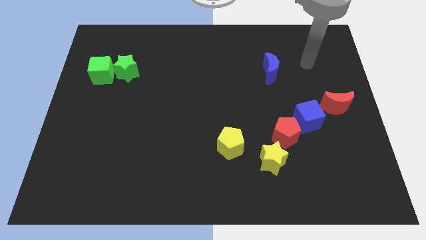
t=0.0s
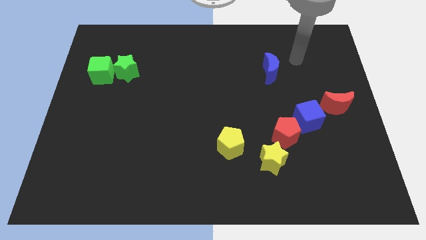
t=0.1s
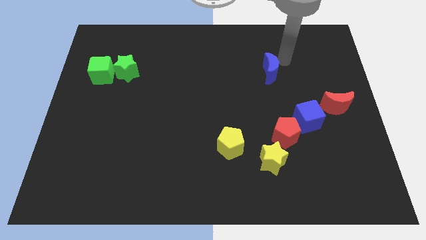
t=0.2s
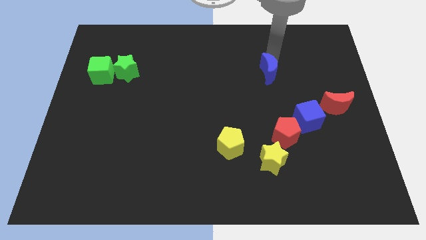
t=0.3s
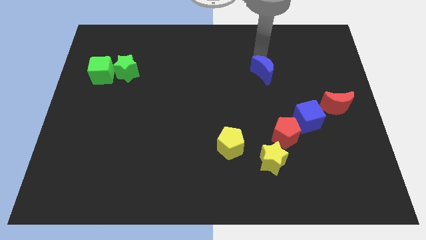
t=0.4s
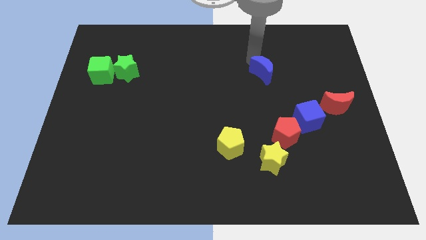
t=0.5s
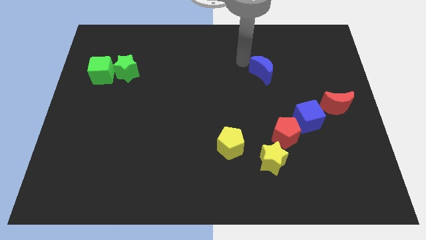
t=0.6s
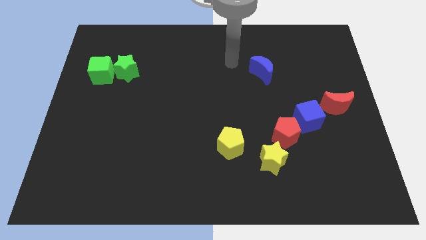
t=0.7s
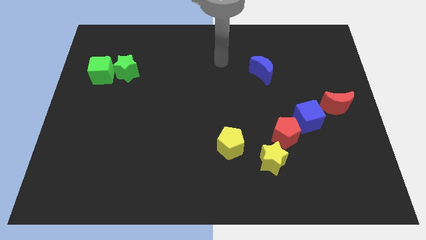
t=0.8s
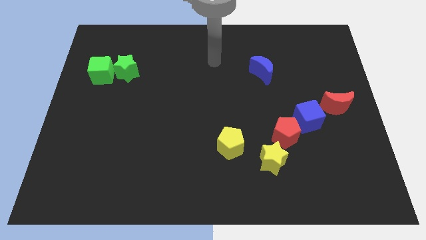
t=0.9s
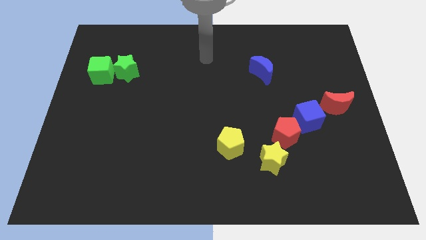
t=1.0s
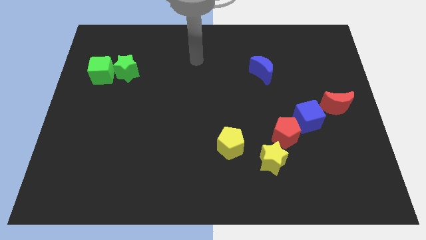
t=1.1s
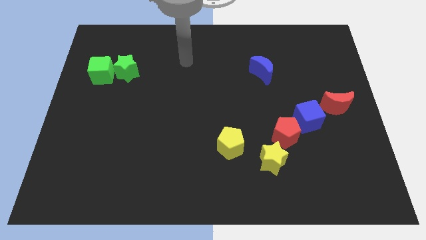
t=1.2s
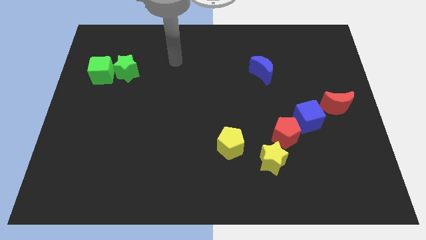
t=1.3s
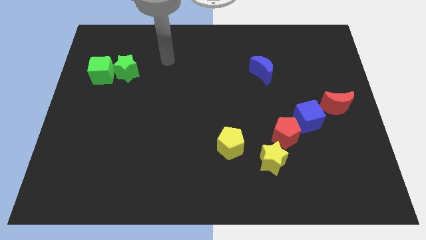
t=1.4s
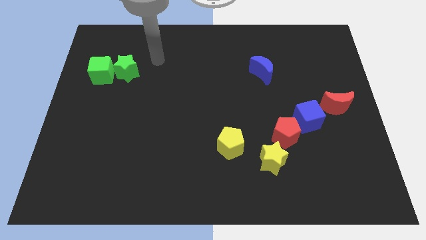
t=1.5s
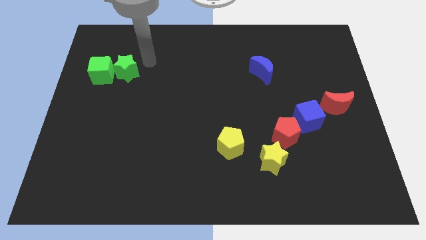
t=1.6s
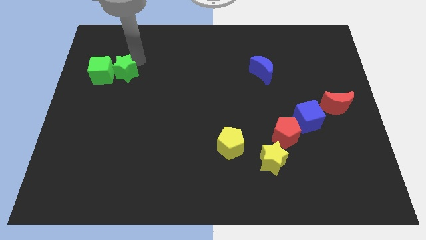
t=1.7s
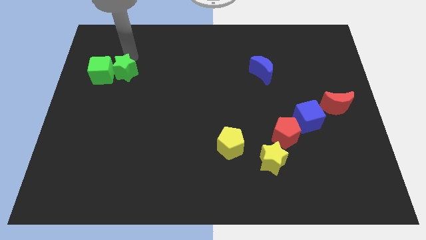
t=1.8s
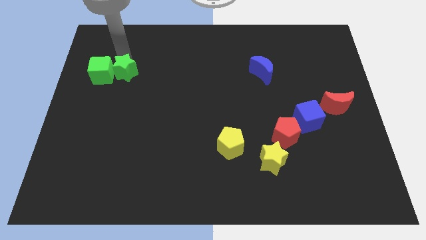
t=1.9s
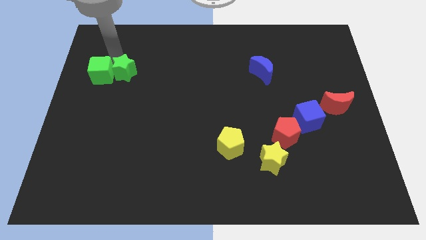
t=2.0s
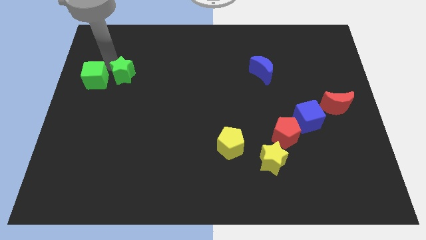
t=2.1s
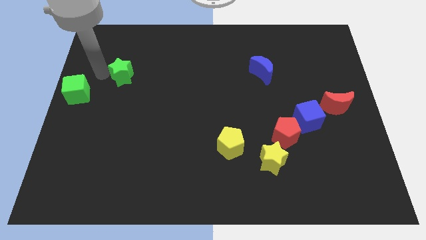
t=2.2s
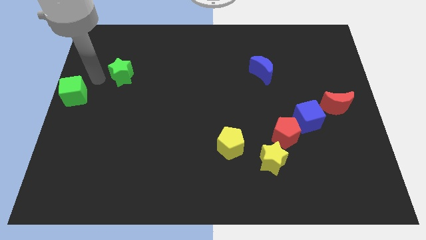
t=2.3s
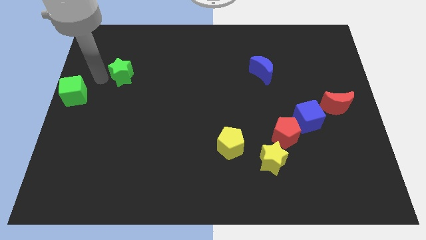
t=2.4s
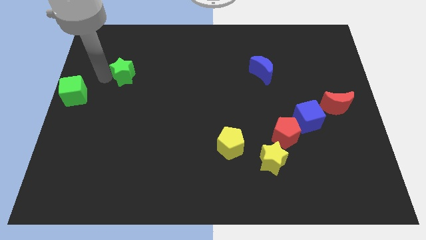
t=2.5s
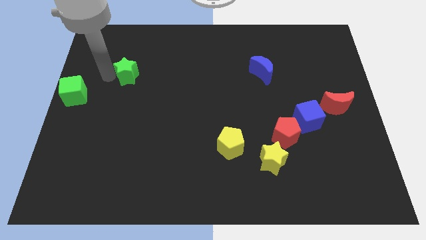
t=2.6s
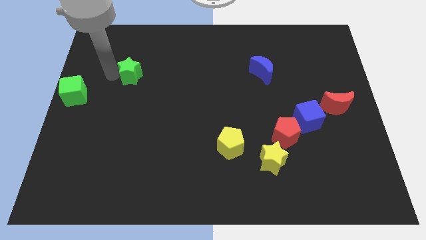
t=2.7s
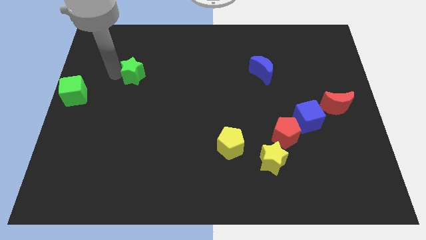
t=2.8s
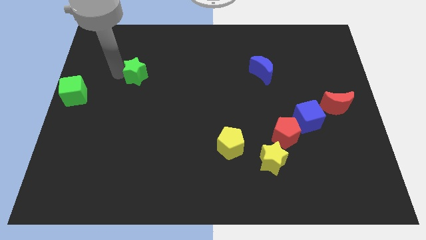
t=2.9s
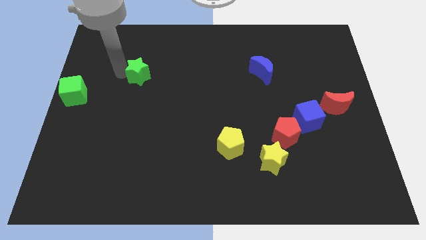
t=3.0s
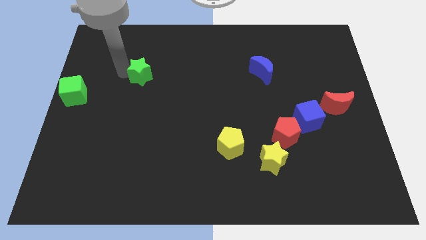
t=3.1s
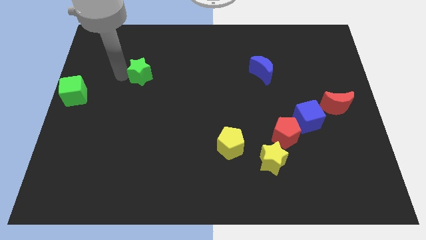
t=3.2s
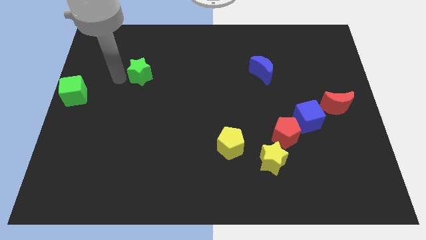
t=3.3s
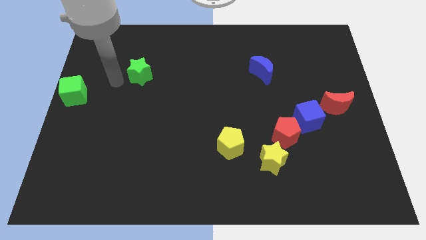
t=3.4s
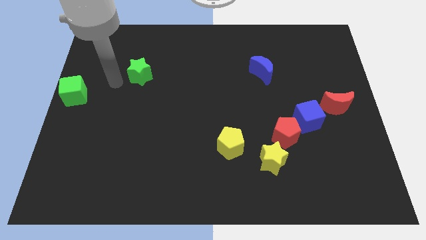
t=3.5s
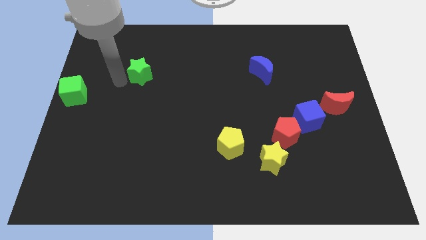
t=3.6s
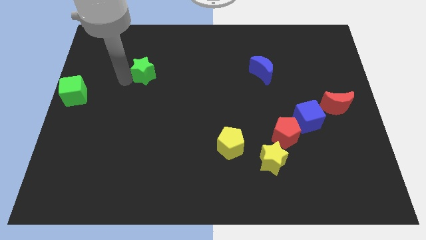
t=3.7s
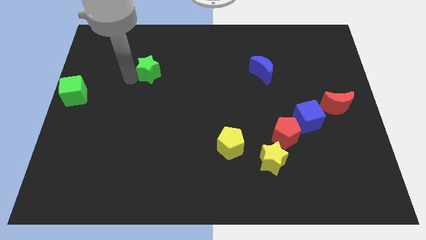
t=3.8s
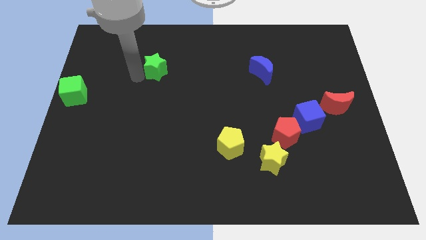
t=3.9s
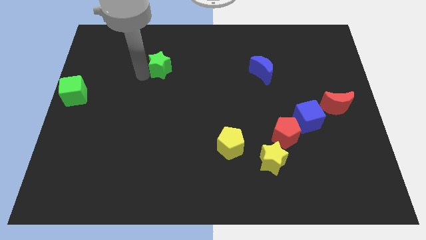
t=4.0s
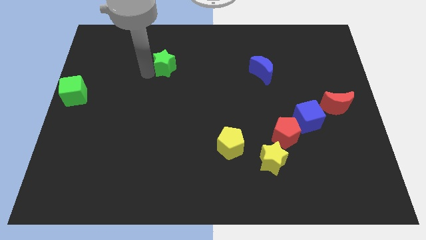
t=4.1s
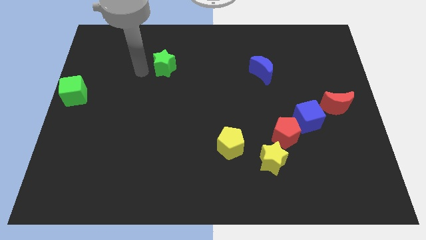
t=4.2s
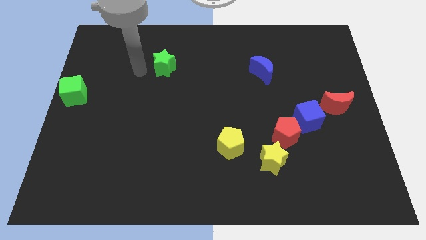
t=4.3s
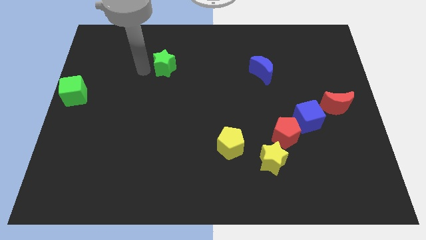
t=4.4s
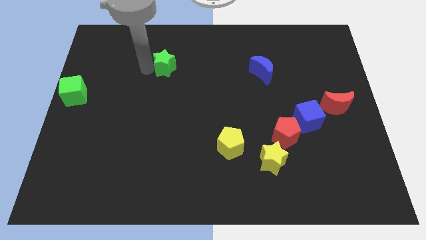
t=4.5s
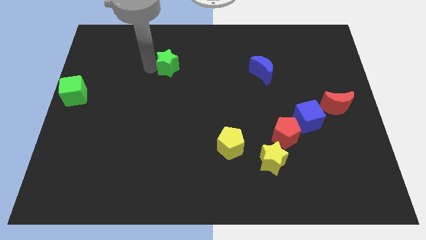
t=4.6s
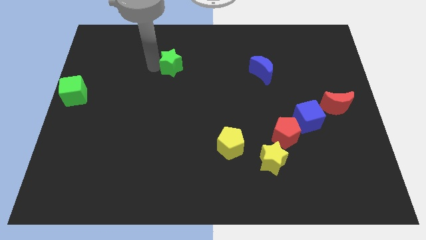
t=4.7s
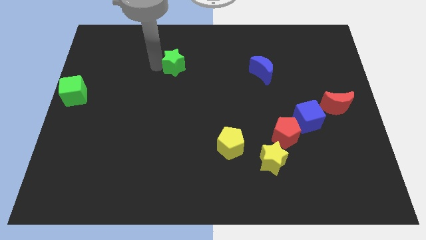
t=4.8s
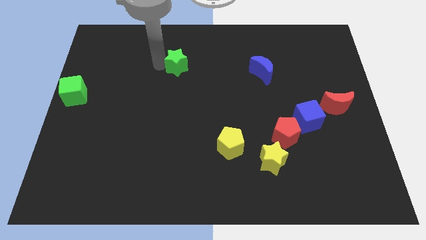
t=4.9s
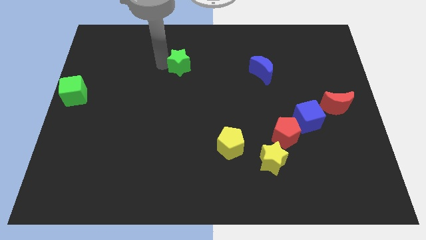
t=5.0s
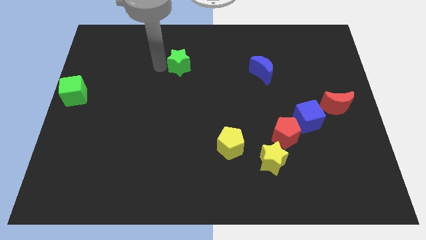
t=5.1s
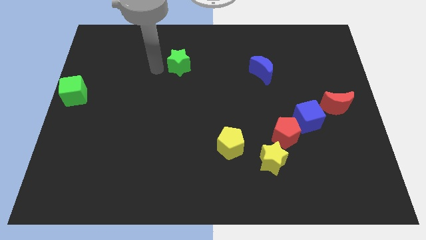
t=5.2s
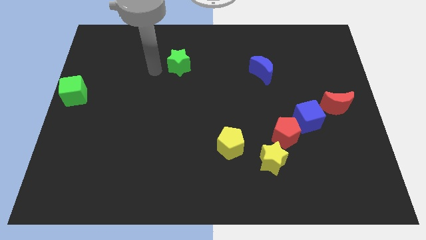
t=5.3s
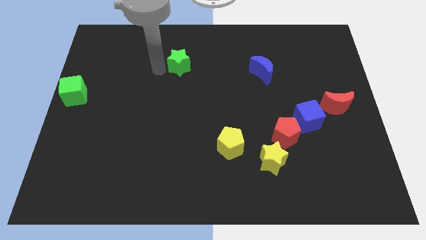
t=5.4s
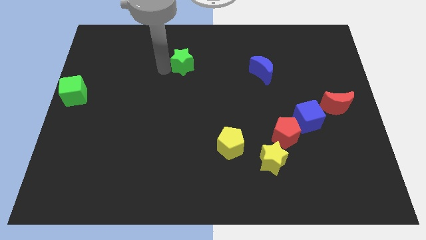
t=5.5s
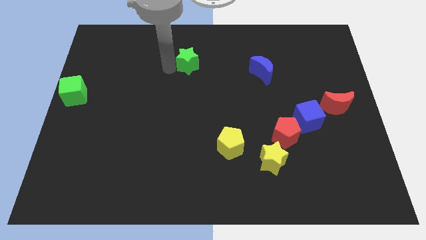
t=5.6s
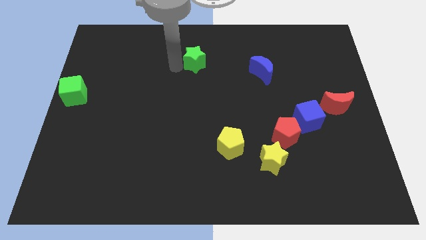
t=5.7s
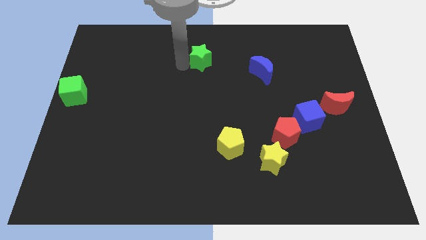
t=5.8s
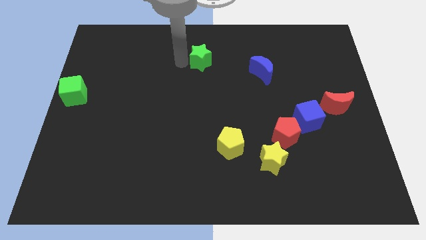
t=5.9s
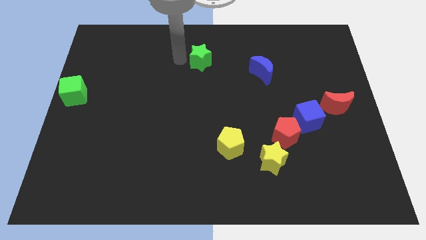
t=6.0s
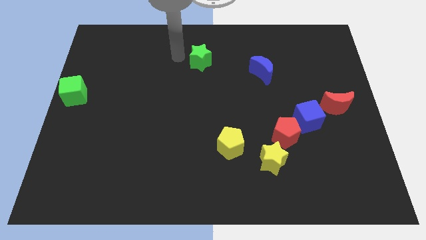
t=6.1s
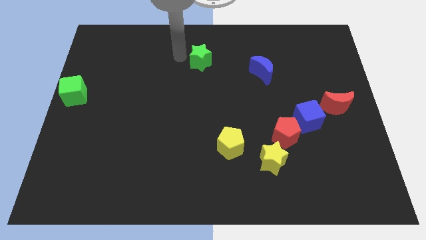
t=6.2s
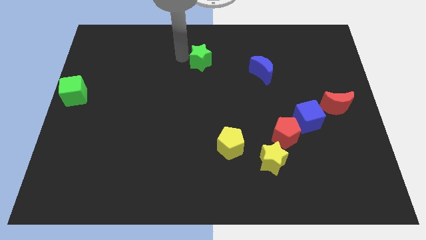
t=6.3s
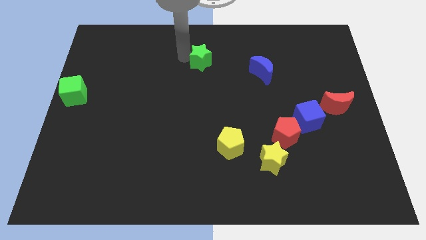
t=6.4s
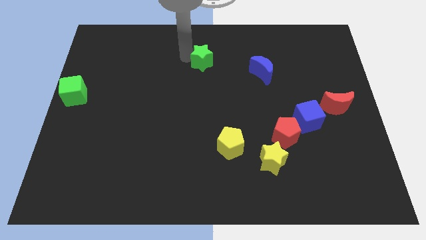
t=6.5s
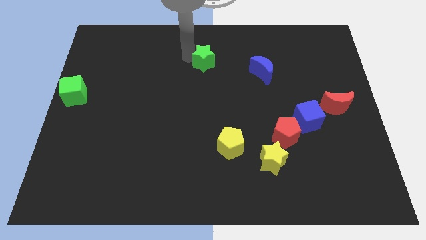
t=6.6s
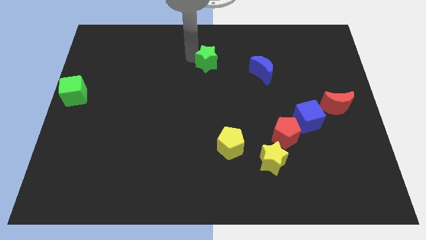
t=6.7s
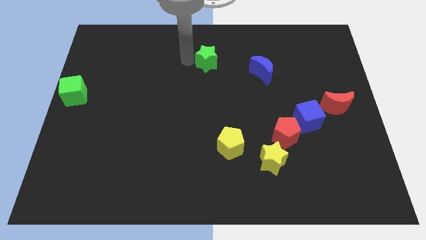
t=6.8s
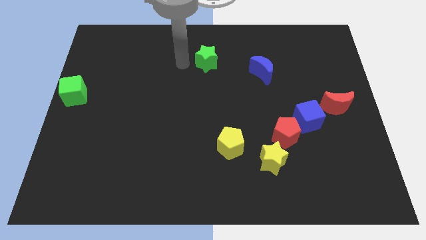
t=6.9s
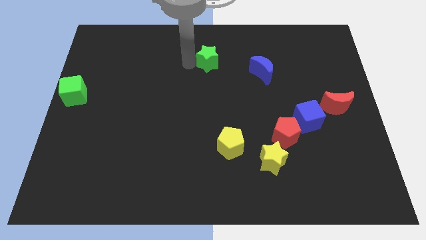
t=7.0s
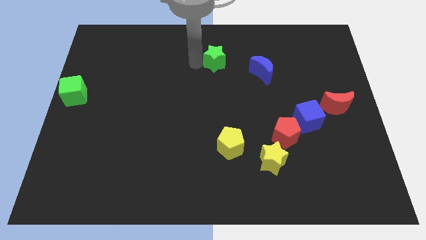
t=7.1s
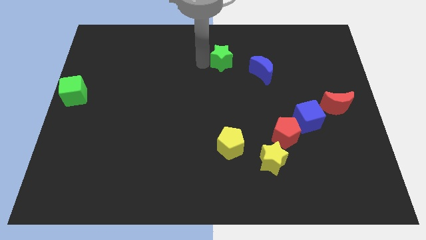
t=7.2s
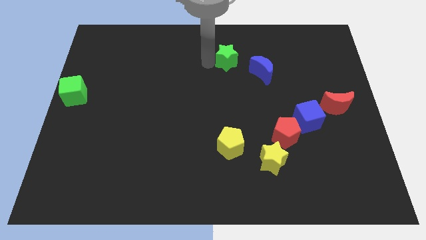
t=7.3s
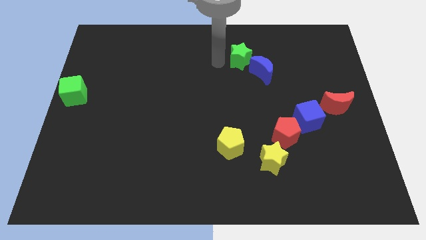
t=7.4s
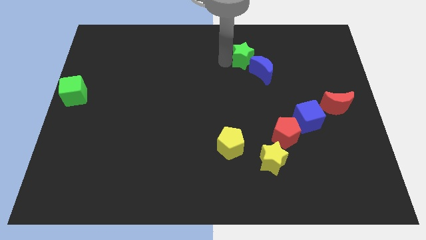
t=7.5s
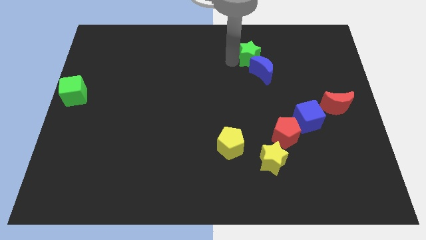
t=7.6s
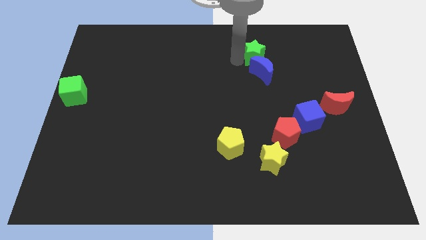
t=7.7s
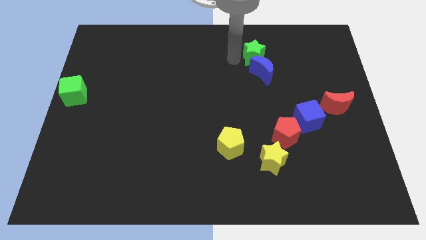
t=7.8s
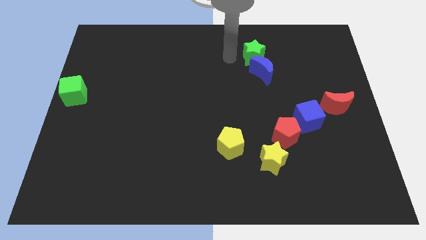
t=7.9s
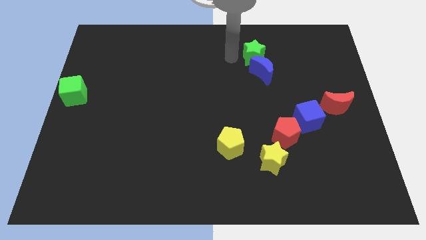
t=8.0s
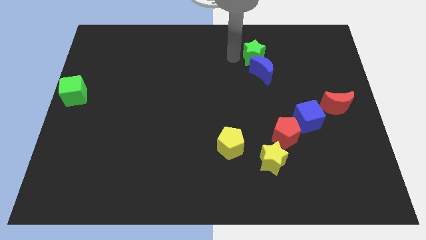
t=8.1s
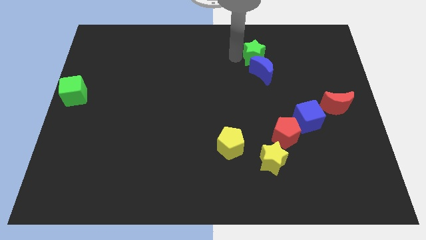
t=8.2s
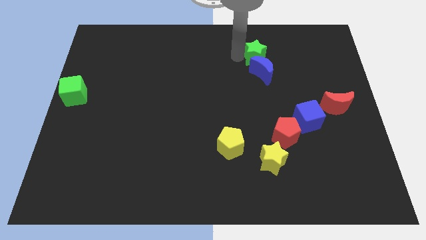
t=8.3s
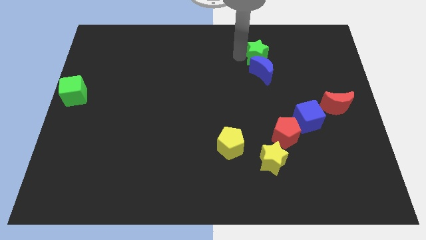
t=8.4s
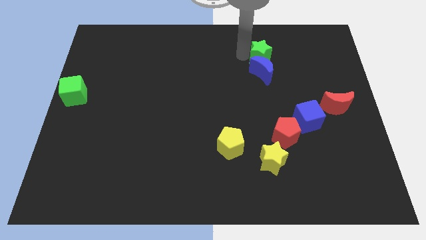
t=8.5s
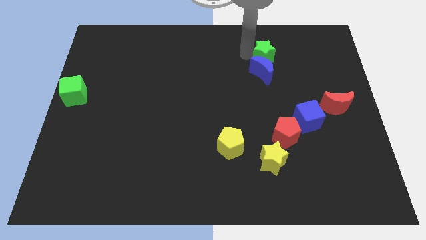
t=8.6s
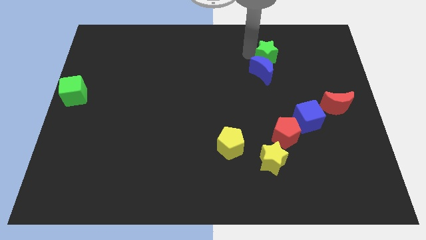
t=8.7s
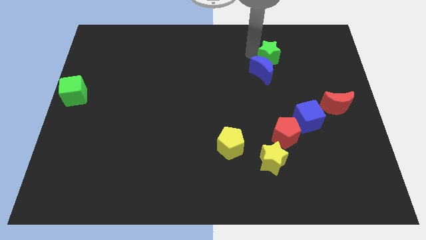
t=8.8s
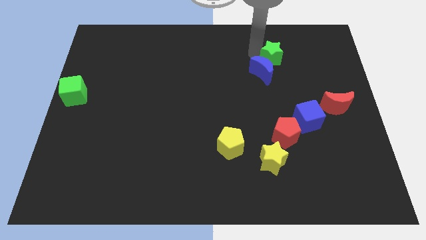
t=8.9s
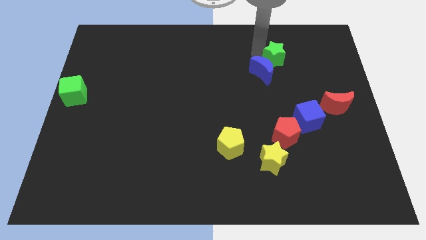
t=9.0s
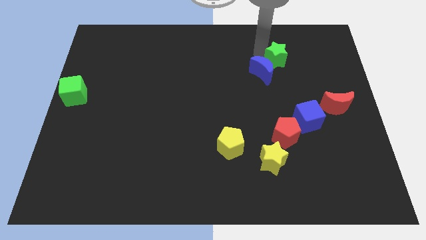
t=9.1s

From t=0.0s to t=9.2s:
slide the green star just right of the blue moon
